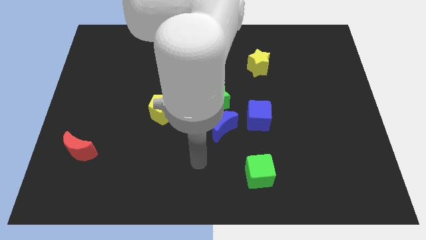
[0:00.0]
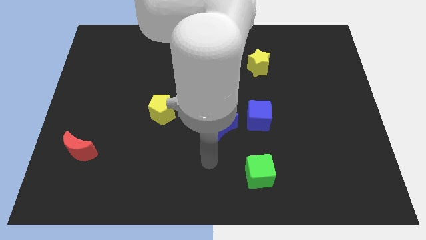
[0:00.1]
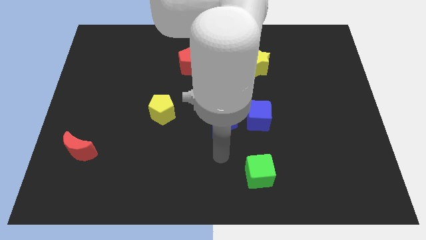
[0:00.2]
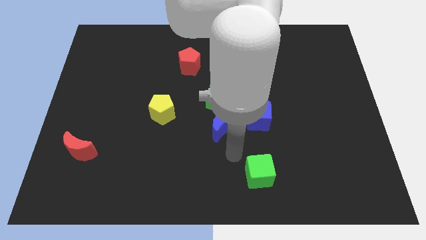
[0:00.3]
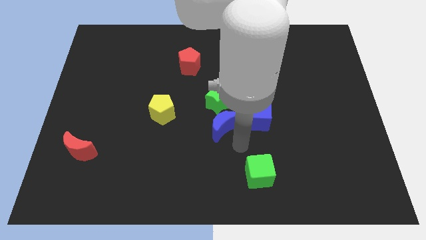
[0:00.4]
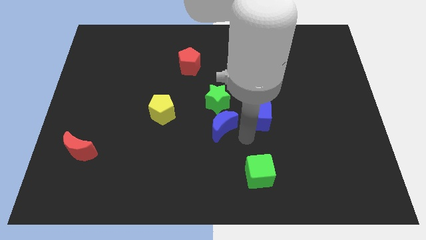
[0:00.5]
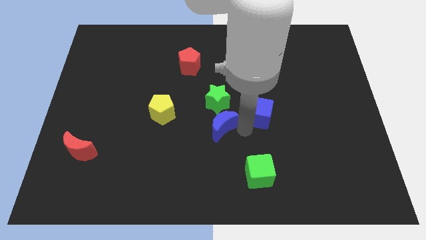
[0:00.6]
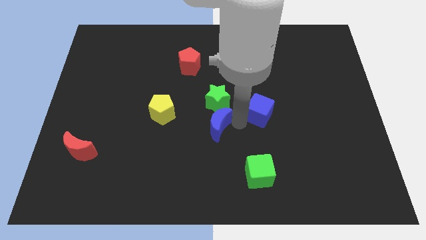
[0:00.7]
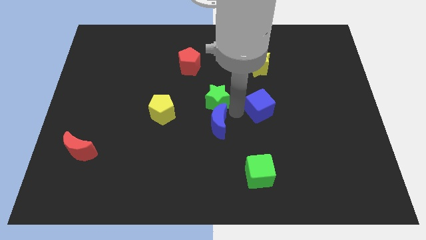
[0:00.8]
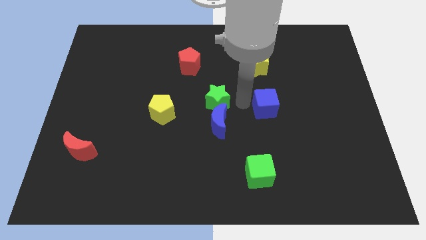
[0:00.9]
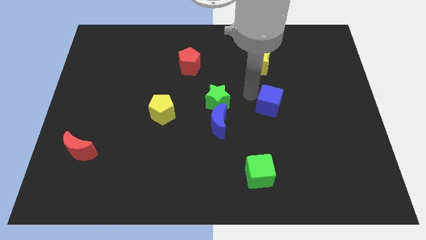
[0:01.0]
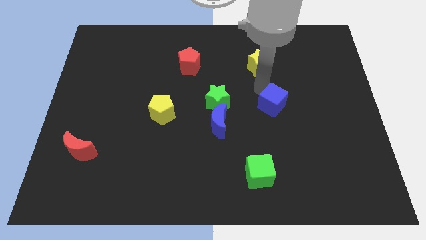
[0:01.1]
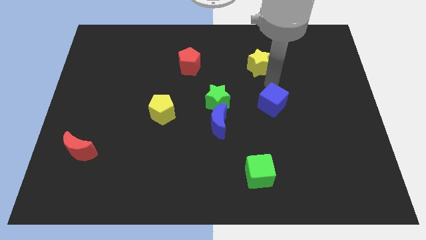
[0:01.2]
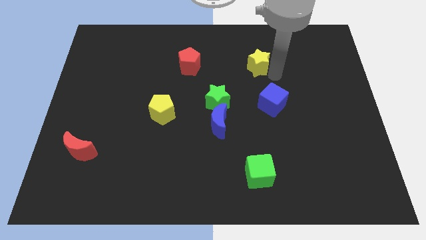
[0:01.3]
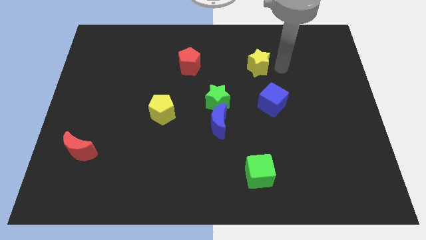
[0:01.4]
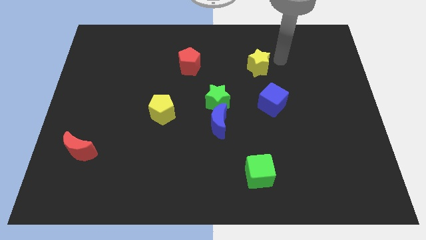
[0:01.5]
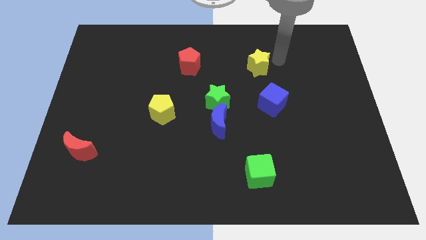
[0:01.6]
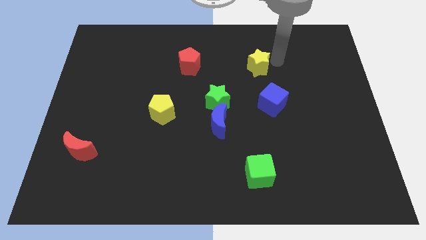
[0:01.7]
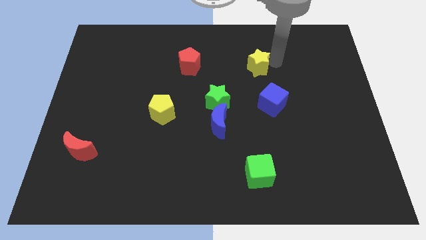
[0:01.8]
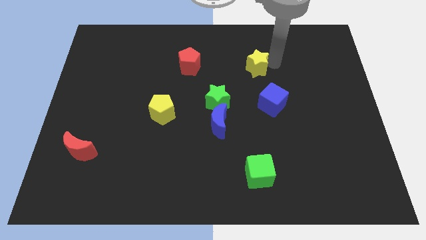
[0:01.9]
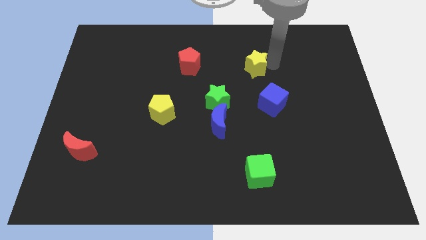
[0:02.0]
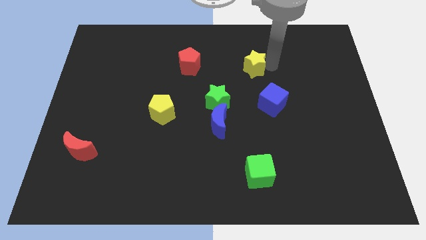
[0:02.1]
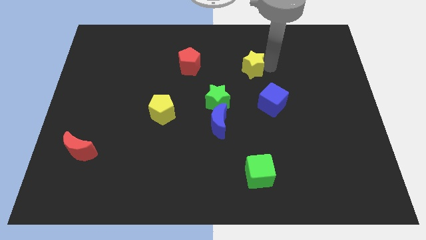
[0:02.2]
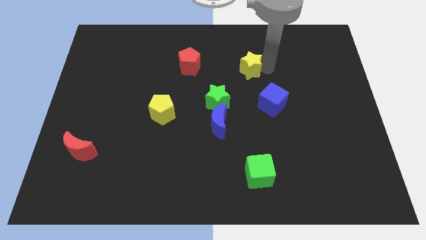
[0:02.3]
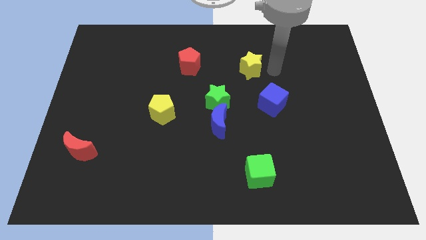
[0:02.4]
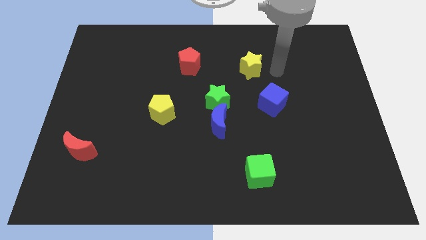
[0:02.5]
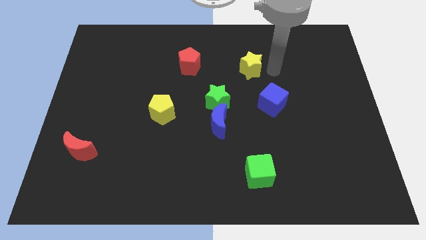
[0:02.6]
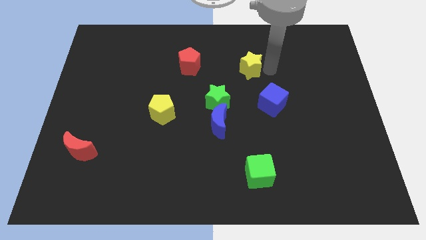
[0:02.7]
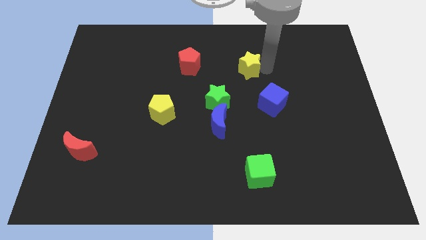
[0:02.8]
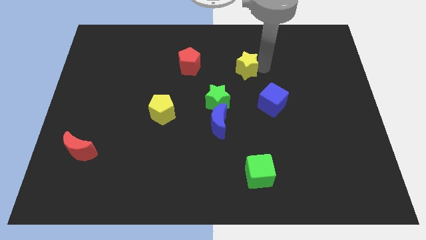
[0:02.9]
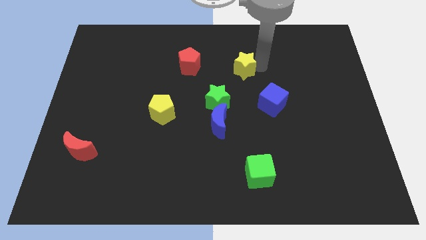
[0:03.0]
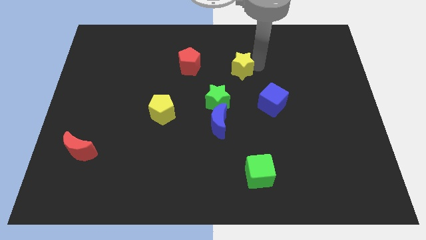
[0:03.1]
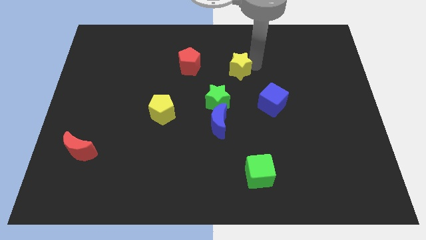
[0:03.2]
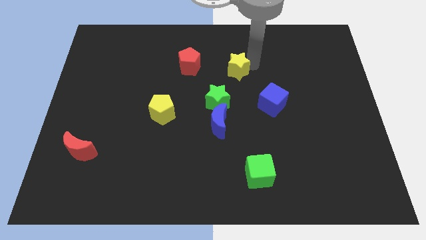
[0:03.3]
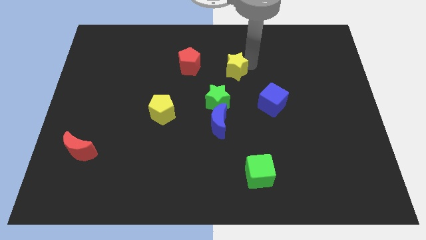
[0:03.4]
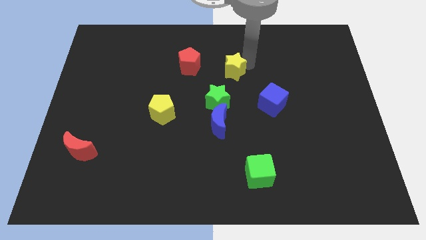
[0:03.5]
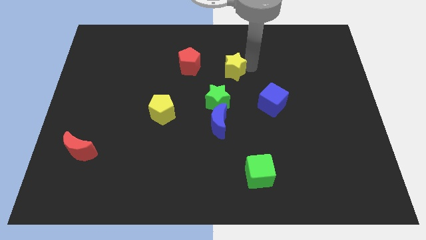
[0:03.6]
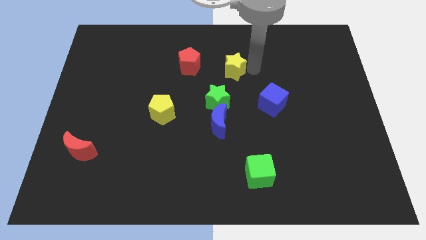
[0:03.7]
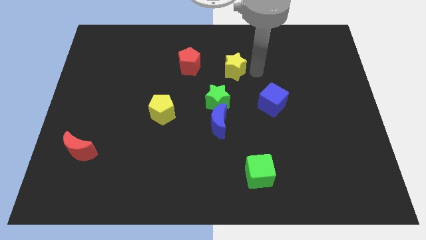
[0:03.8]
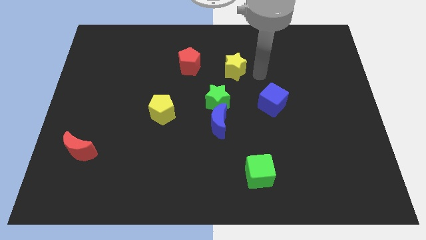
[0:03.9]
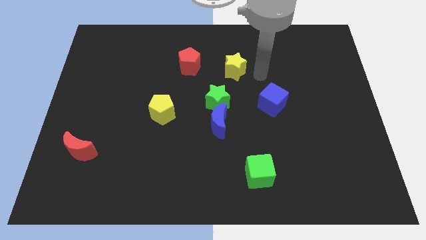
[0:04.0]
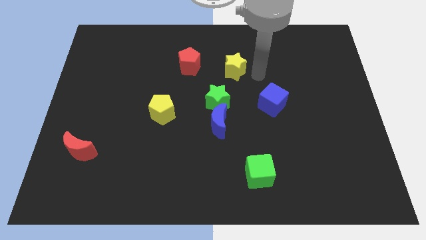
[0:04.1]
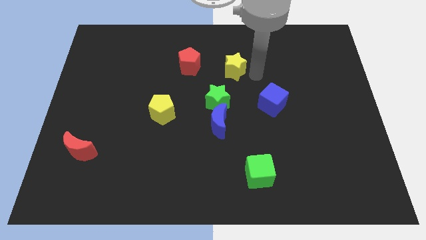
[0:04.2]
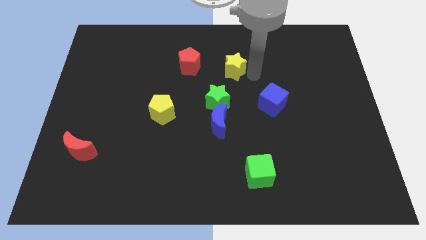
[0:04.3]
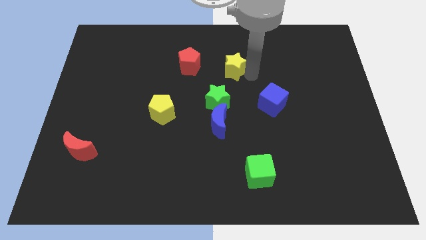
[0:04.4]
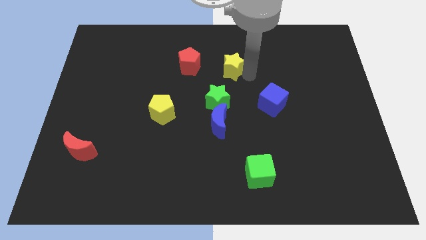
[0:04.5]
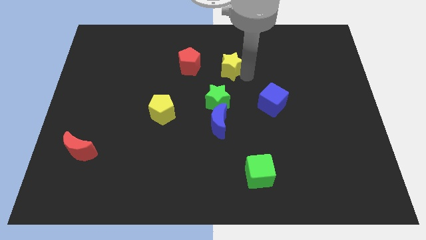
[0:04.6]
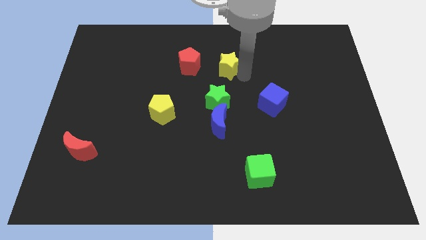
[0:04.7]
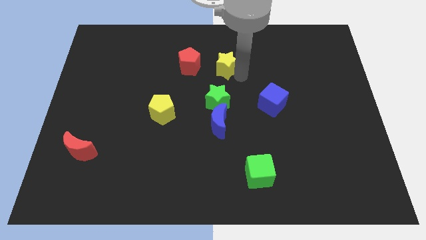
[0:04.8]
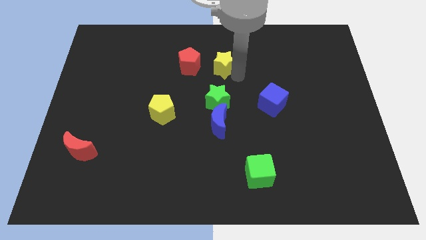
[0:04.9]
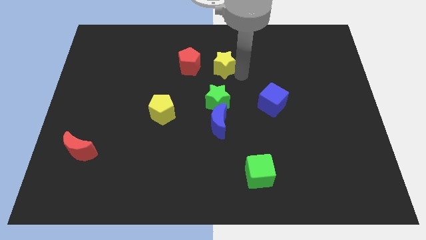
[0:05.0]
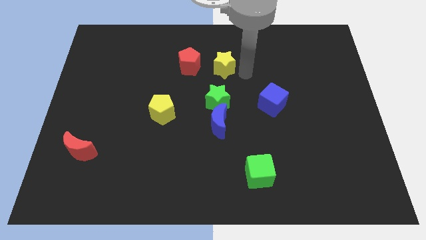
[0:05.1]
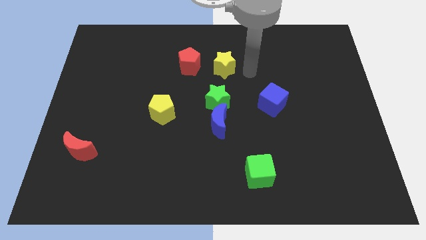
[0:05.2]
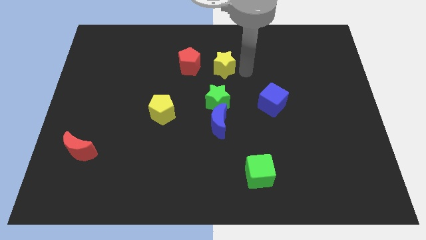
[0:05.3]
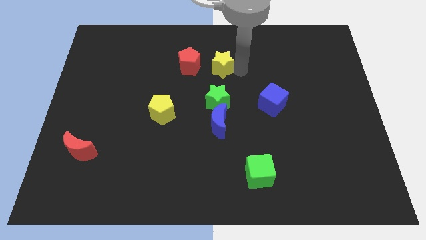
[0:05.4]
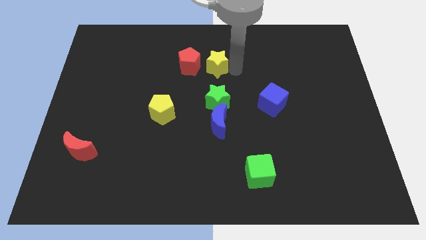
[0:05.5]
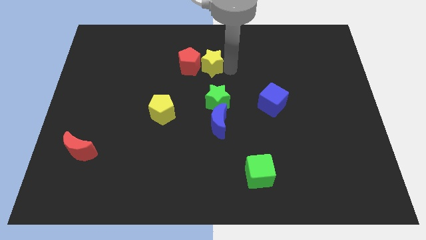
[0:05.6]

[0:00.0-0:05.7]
push the yellow star next to the red pentagon

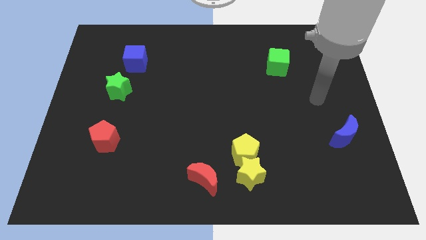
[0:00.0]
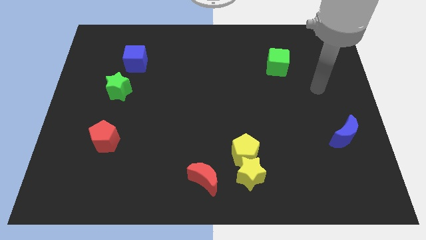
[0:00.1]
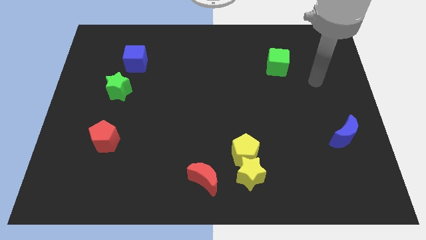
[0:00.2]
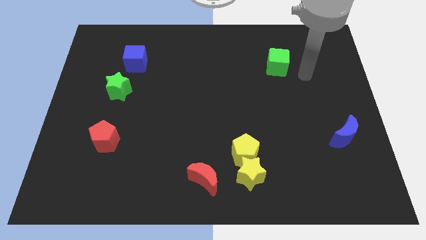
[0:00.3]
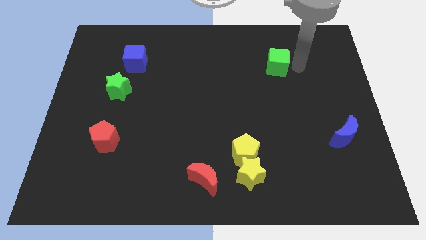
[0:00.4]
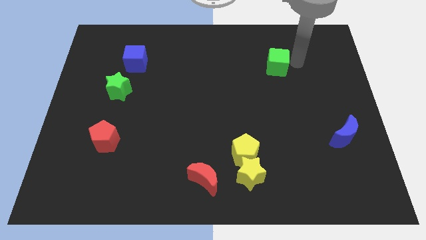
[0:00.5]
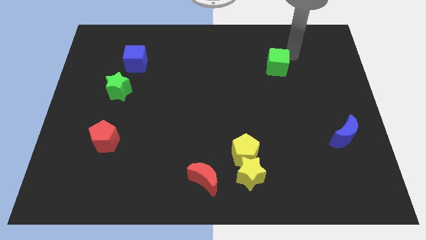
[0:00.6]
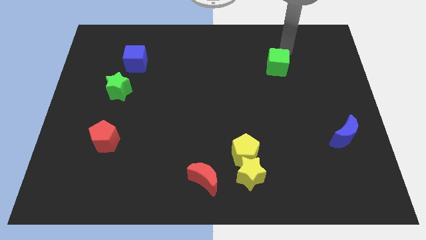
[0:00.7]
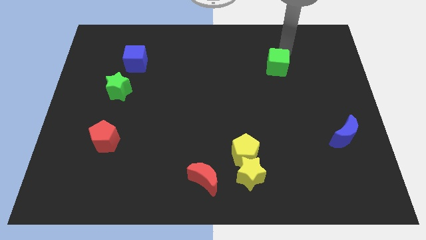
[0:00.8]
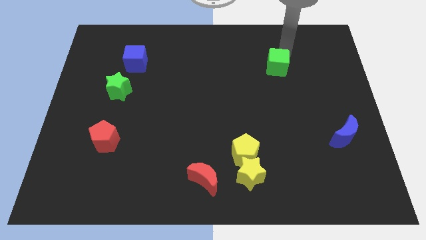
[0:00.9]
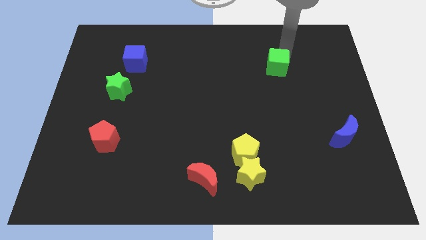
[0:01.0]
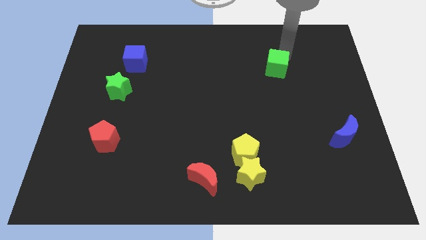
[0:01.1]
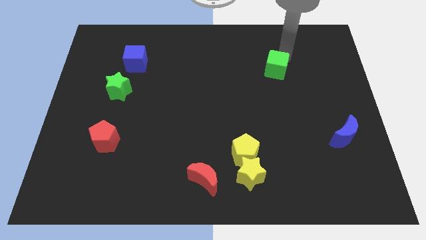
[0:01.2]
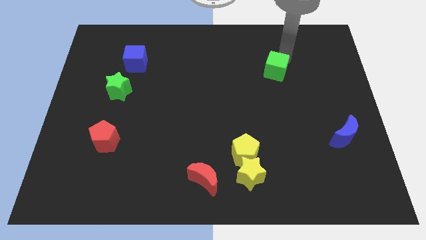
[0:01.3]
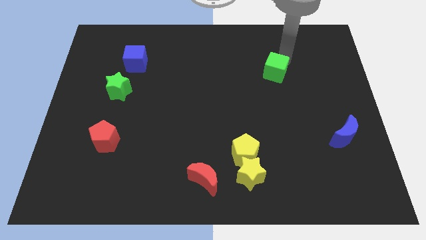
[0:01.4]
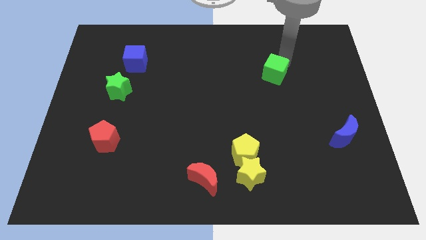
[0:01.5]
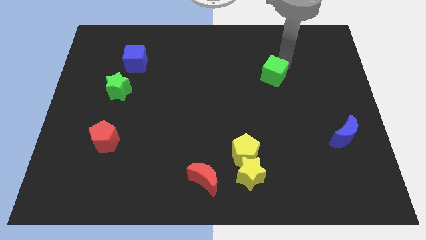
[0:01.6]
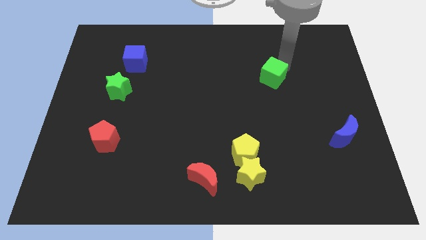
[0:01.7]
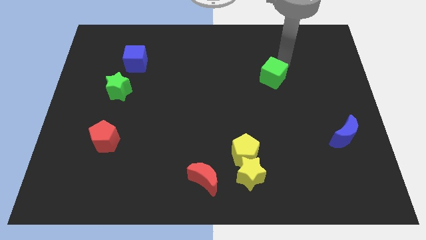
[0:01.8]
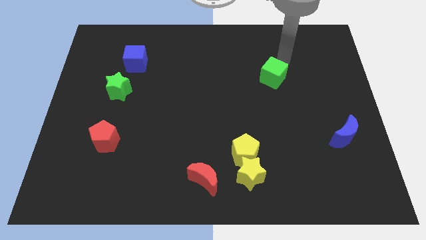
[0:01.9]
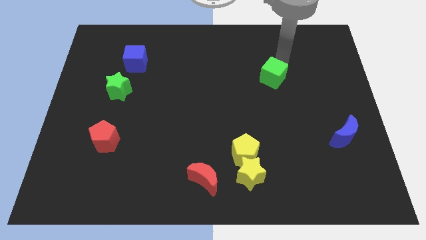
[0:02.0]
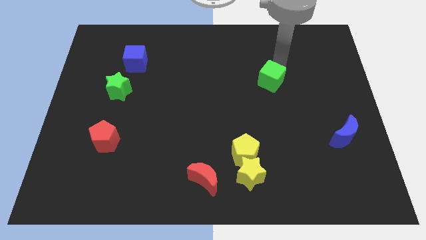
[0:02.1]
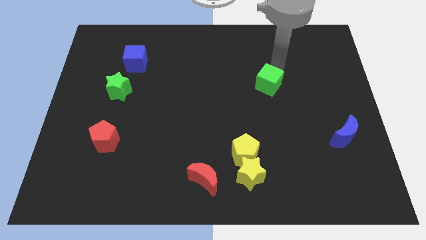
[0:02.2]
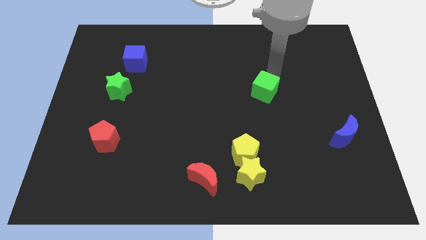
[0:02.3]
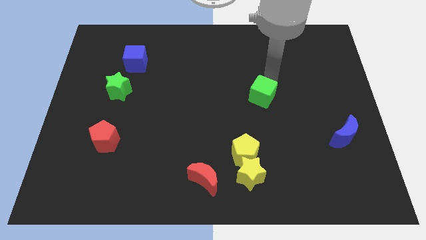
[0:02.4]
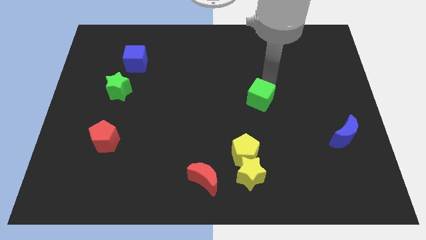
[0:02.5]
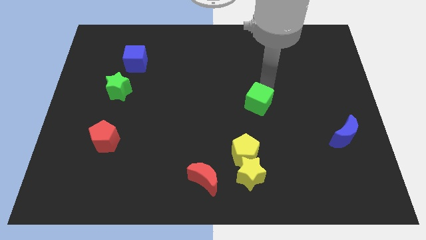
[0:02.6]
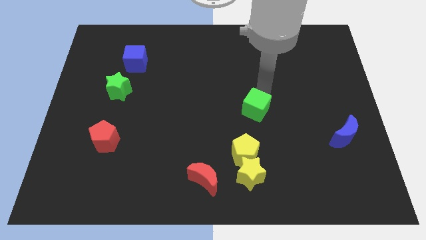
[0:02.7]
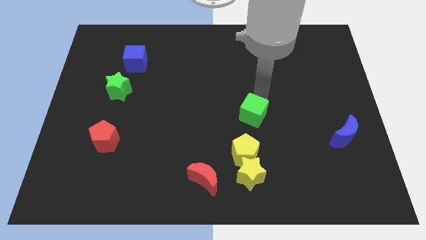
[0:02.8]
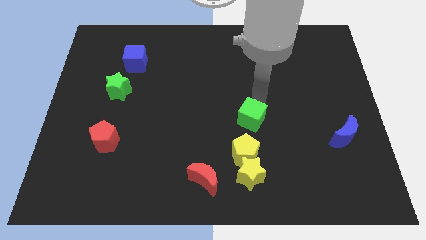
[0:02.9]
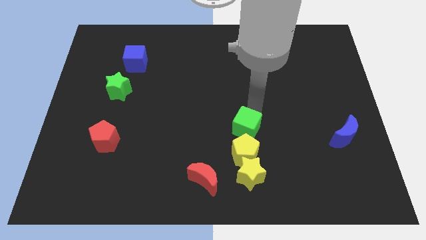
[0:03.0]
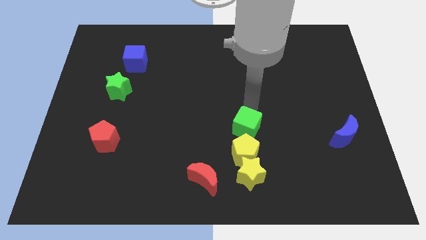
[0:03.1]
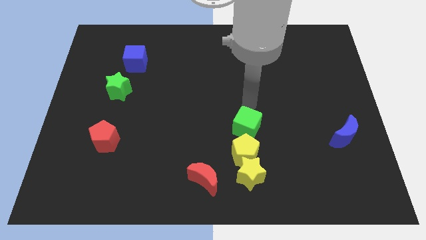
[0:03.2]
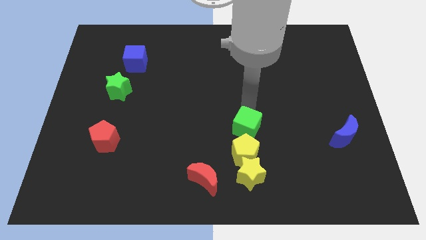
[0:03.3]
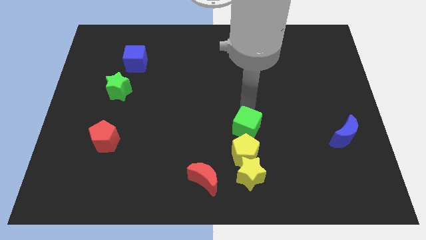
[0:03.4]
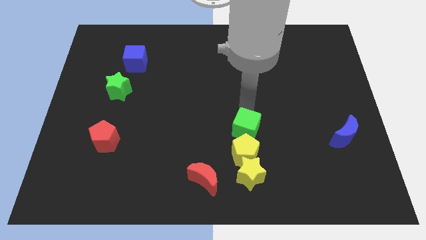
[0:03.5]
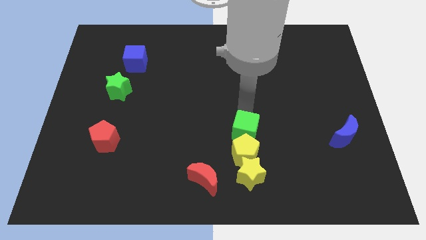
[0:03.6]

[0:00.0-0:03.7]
move the green cube towards the yellow pentagon
